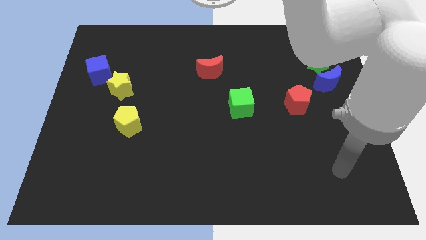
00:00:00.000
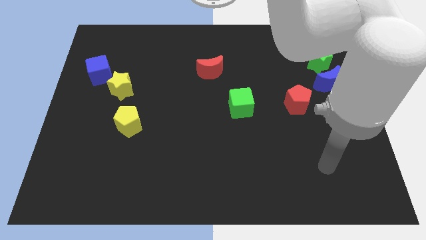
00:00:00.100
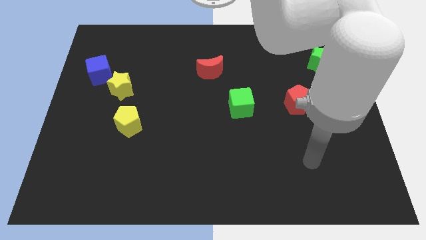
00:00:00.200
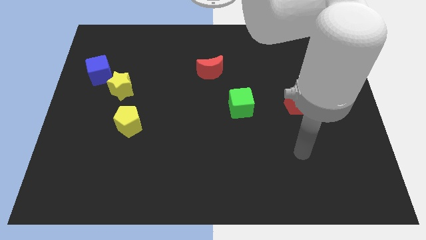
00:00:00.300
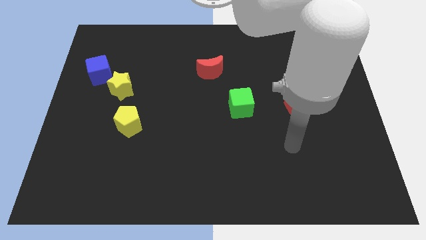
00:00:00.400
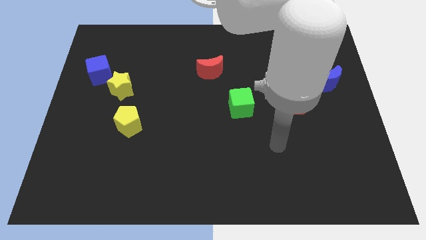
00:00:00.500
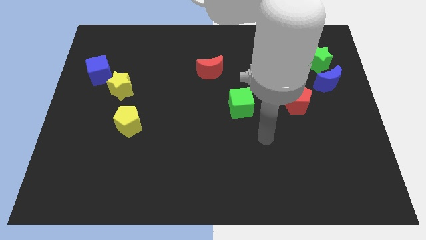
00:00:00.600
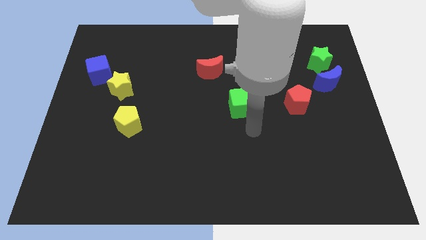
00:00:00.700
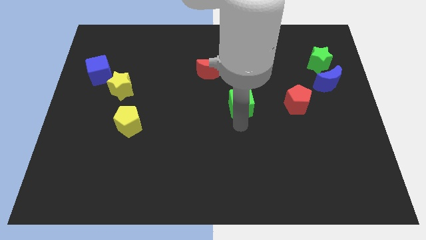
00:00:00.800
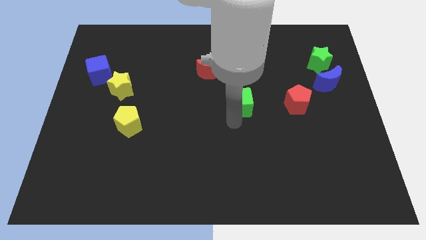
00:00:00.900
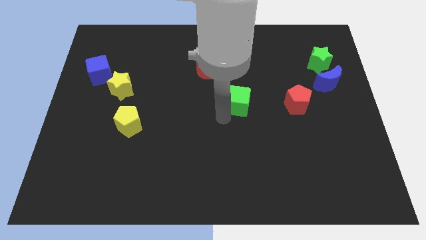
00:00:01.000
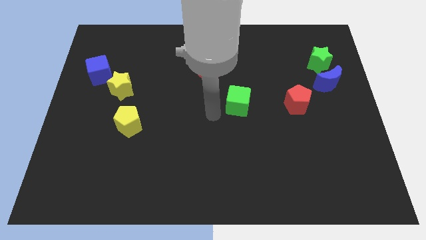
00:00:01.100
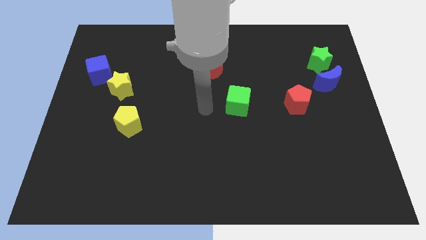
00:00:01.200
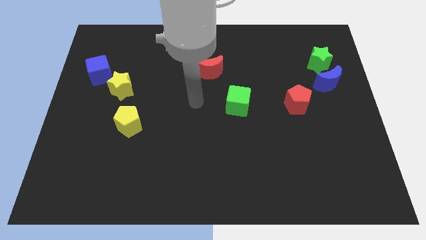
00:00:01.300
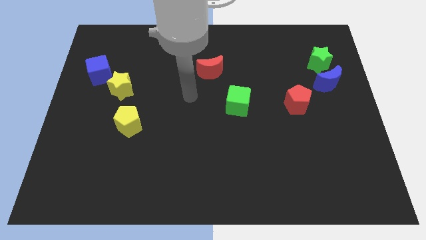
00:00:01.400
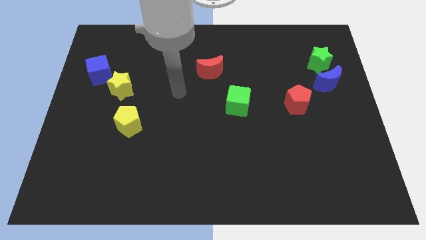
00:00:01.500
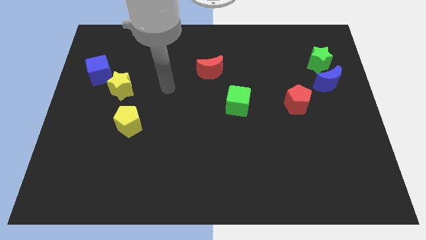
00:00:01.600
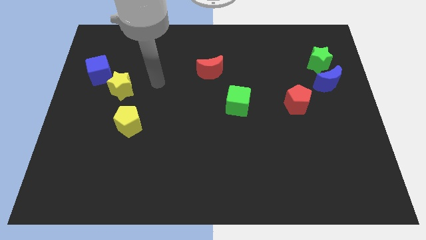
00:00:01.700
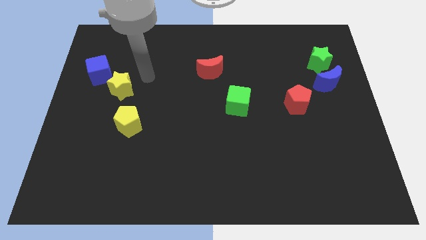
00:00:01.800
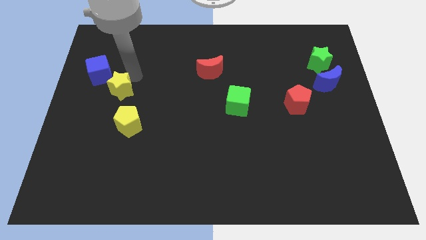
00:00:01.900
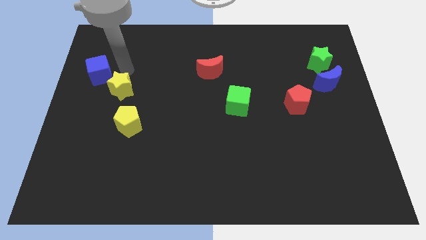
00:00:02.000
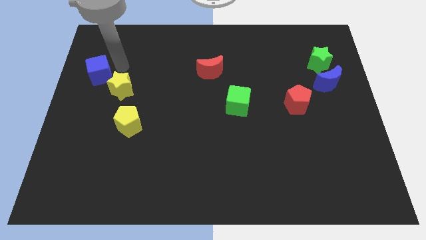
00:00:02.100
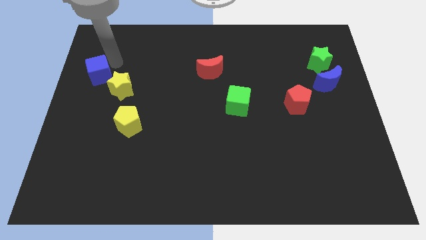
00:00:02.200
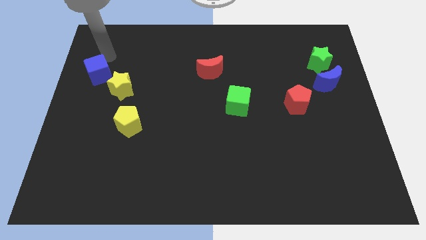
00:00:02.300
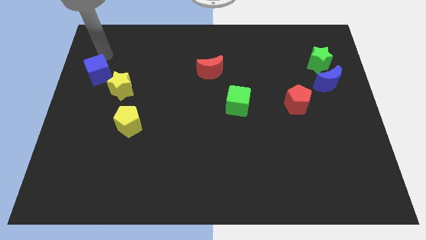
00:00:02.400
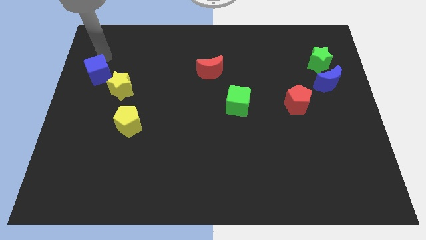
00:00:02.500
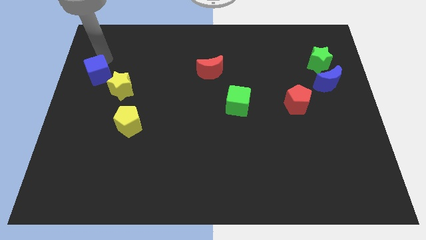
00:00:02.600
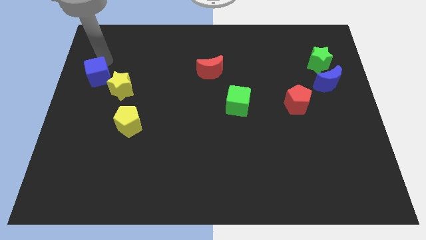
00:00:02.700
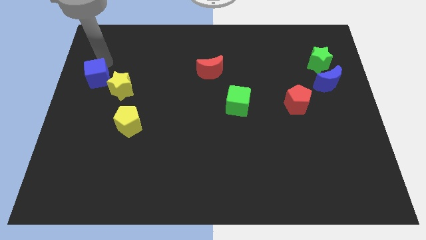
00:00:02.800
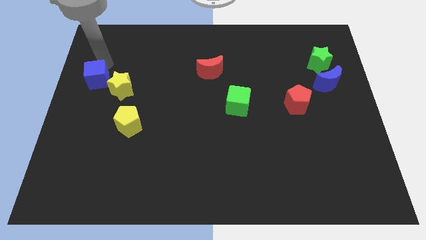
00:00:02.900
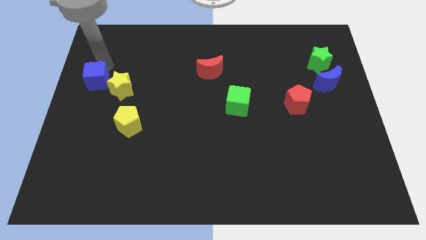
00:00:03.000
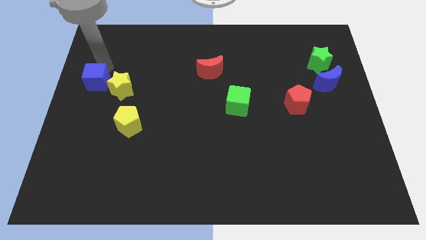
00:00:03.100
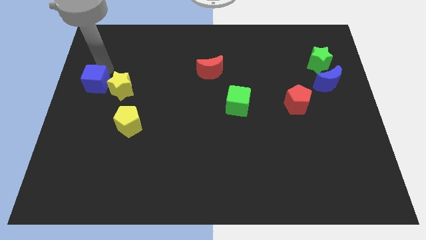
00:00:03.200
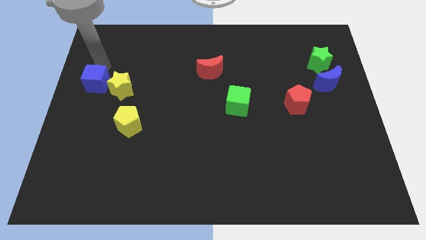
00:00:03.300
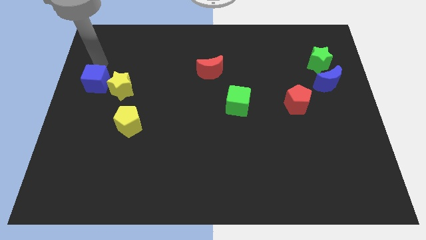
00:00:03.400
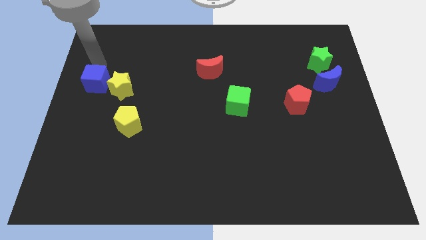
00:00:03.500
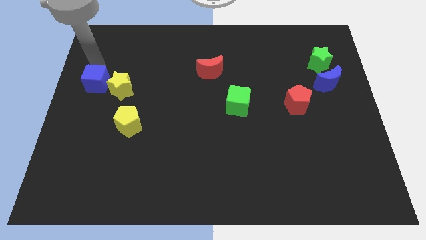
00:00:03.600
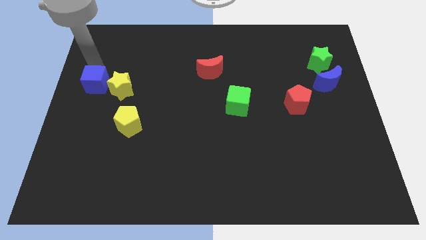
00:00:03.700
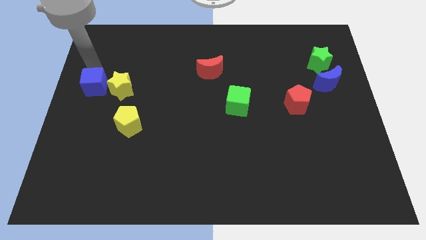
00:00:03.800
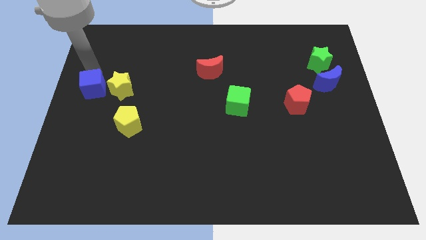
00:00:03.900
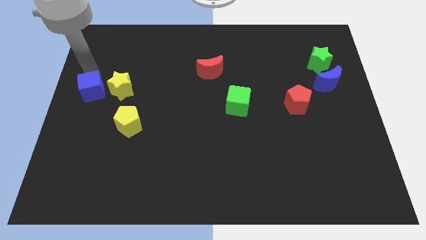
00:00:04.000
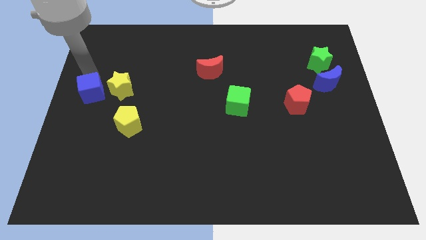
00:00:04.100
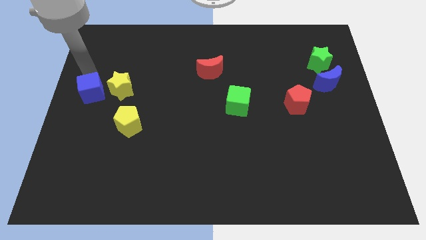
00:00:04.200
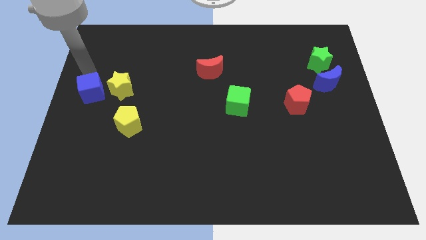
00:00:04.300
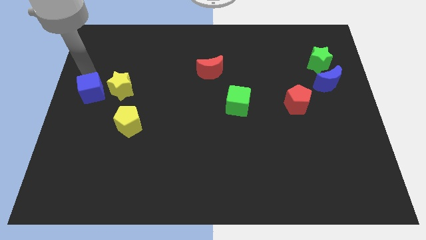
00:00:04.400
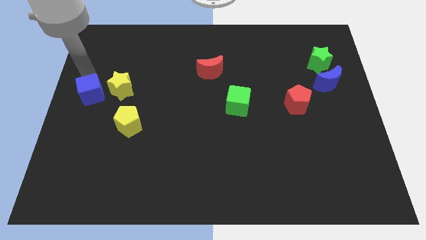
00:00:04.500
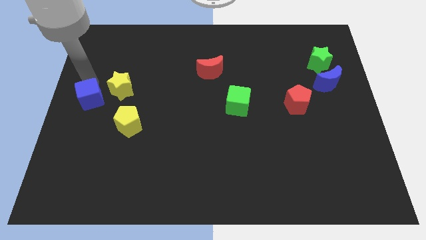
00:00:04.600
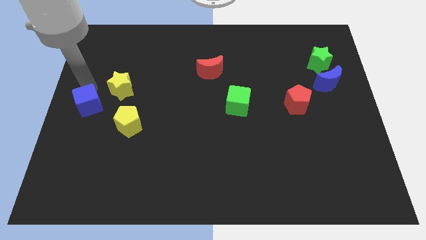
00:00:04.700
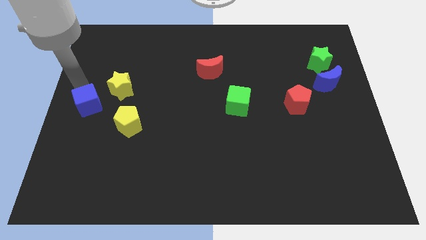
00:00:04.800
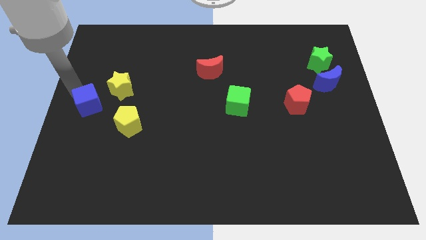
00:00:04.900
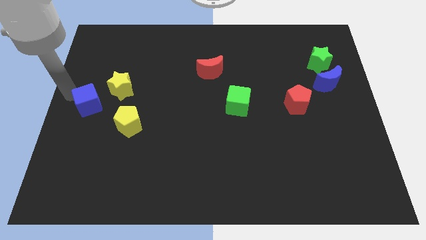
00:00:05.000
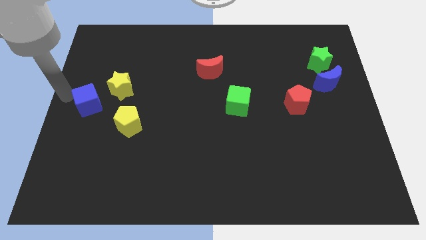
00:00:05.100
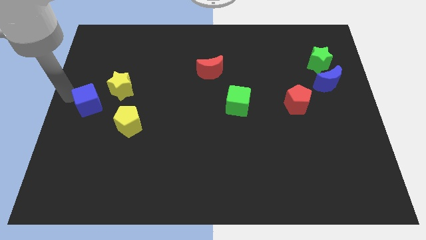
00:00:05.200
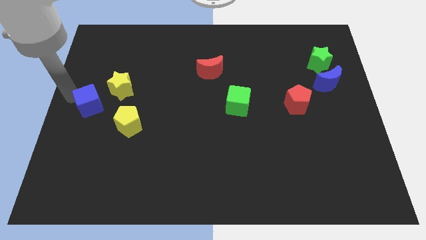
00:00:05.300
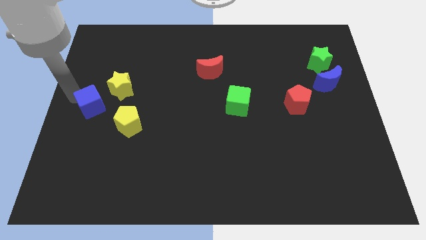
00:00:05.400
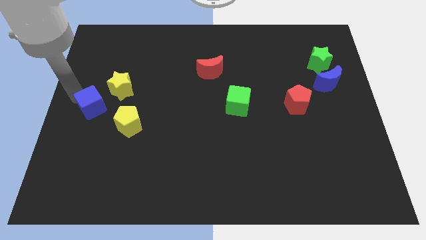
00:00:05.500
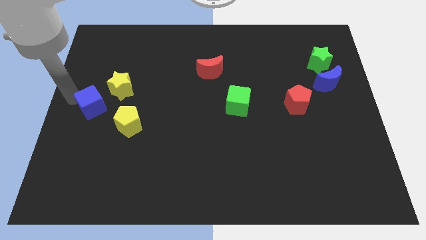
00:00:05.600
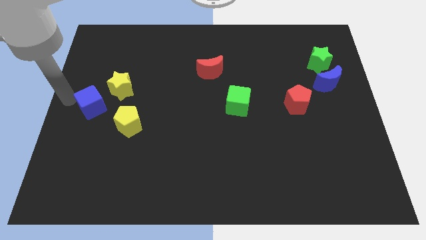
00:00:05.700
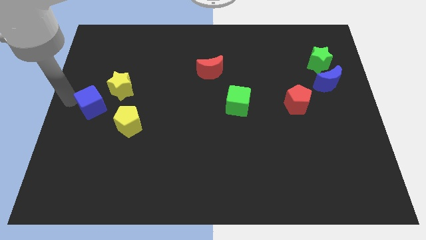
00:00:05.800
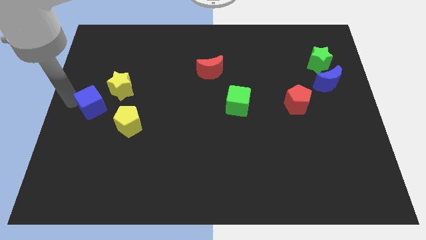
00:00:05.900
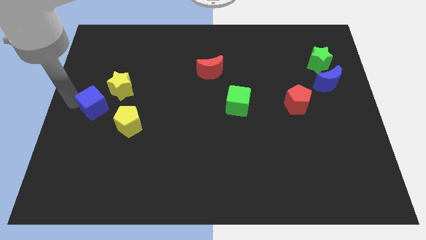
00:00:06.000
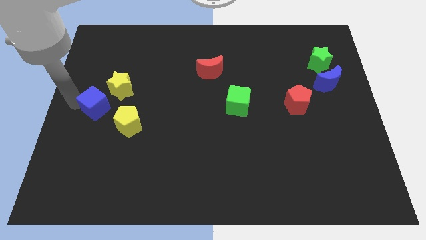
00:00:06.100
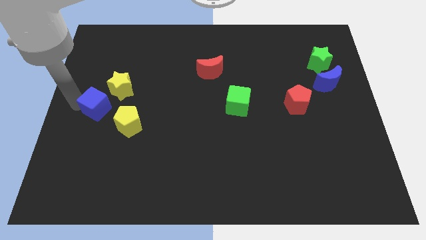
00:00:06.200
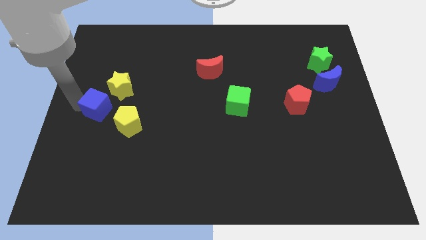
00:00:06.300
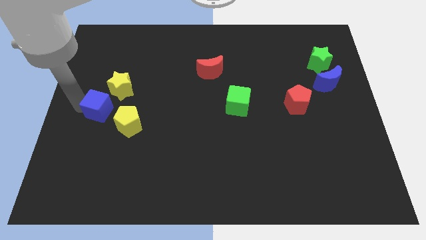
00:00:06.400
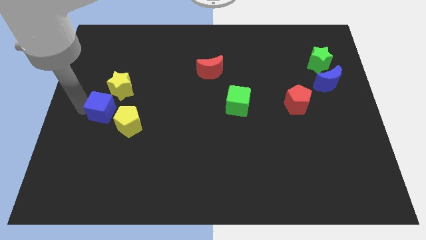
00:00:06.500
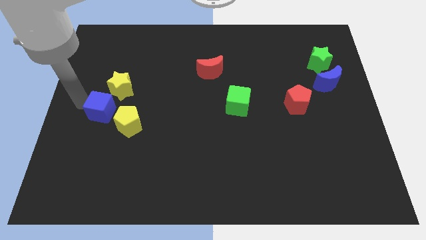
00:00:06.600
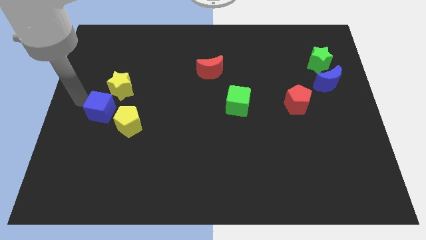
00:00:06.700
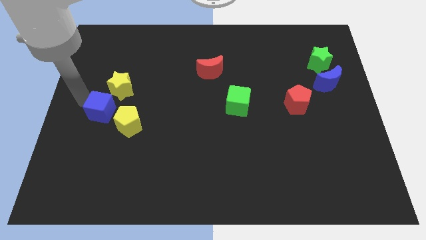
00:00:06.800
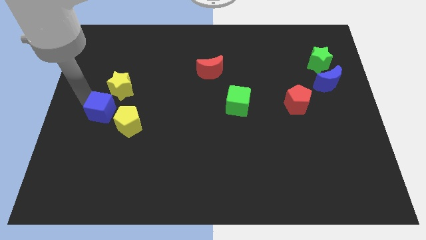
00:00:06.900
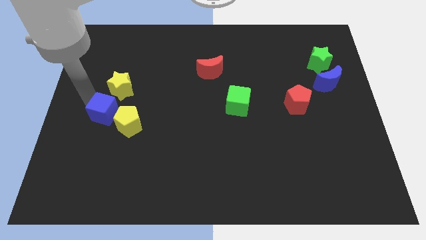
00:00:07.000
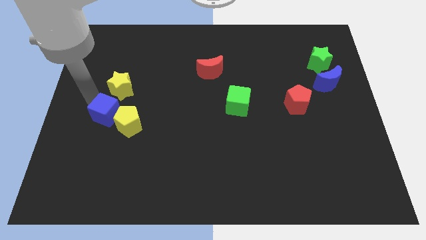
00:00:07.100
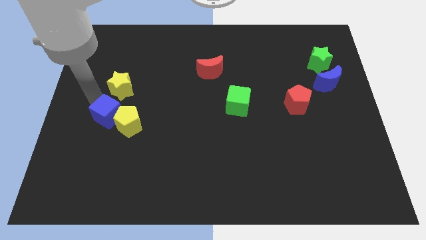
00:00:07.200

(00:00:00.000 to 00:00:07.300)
slide the blue cube towards the yellow pentagon
